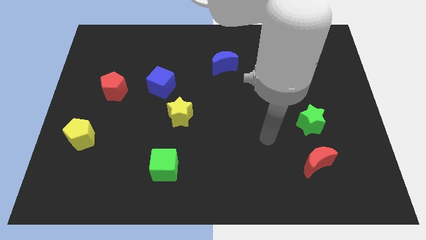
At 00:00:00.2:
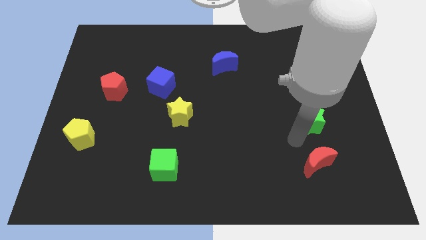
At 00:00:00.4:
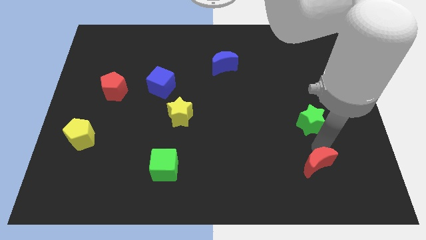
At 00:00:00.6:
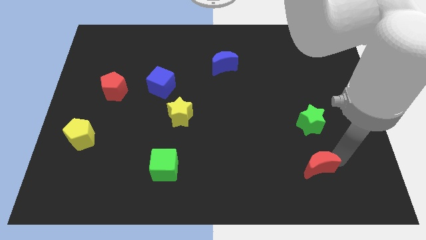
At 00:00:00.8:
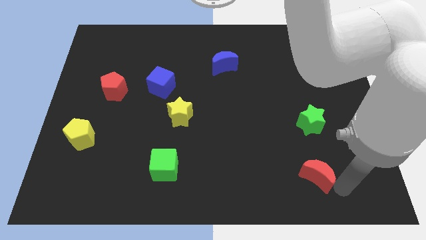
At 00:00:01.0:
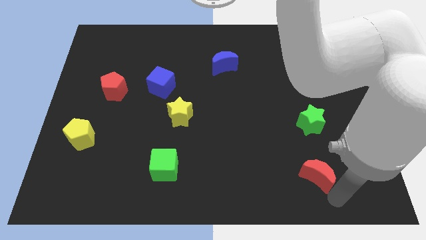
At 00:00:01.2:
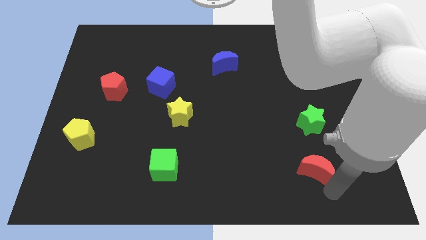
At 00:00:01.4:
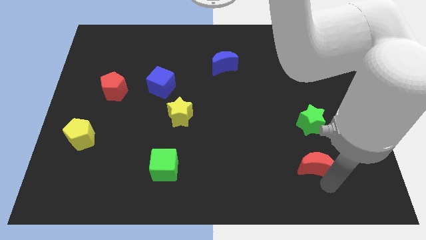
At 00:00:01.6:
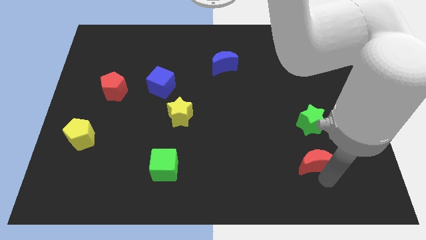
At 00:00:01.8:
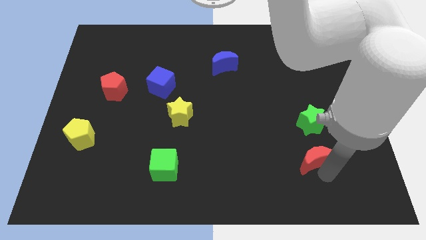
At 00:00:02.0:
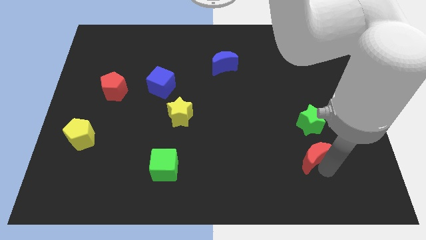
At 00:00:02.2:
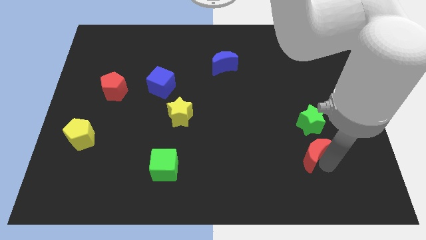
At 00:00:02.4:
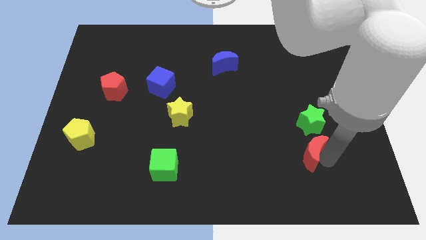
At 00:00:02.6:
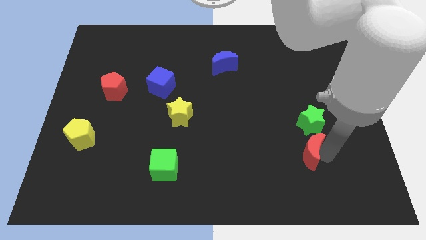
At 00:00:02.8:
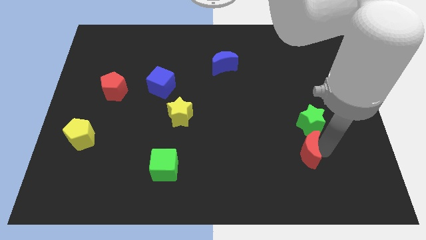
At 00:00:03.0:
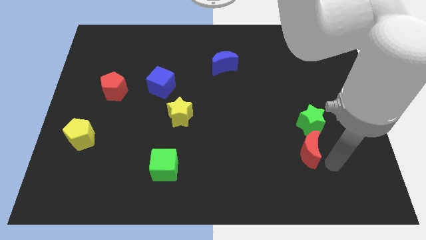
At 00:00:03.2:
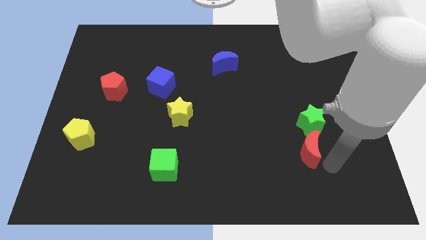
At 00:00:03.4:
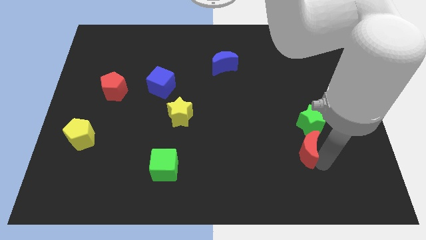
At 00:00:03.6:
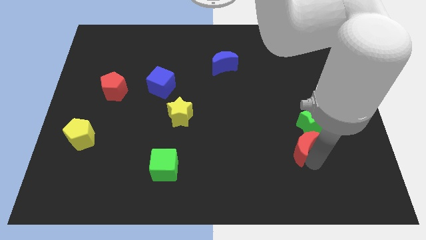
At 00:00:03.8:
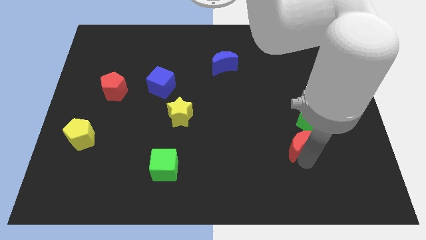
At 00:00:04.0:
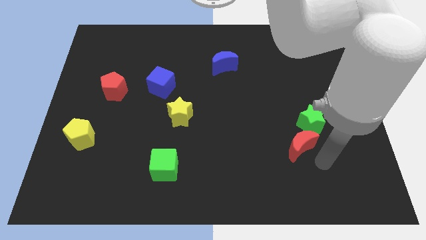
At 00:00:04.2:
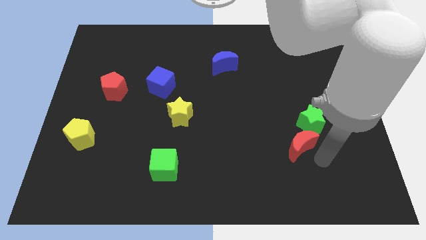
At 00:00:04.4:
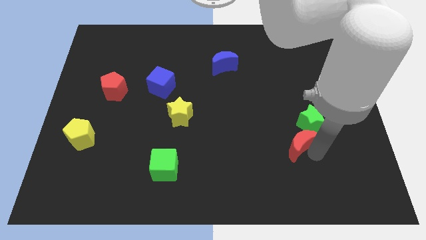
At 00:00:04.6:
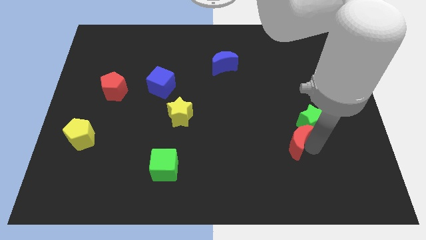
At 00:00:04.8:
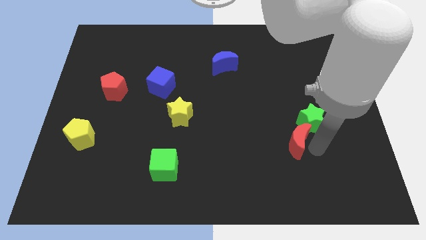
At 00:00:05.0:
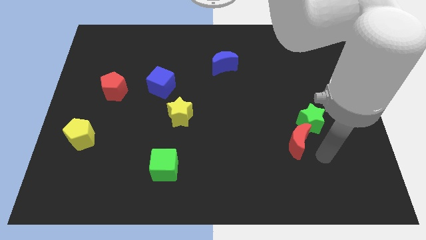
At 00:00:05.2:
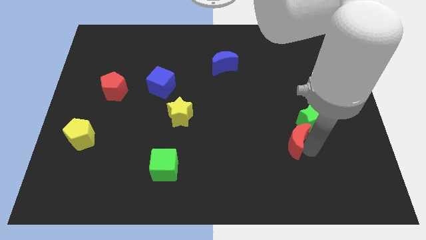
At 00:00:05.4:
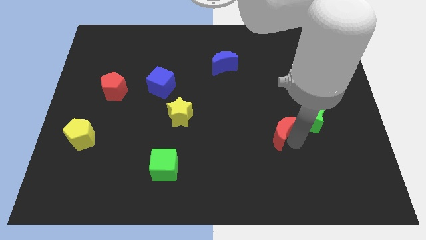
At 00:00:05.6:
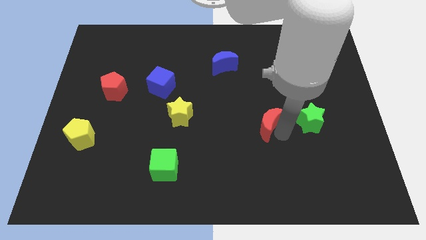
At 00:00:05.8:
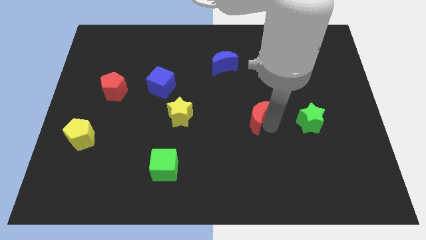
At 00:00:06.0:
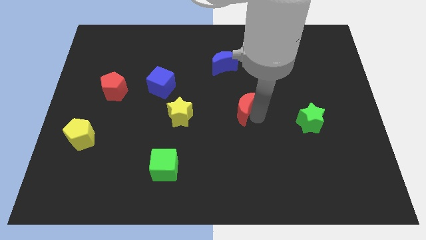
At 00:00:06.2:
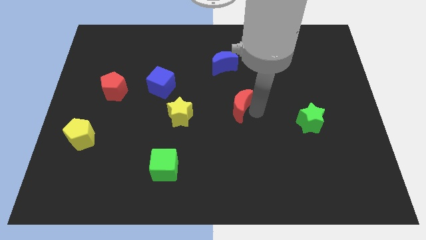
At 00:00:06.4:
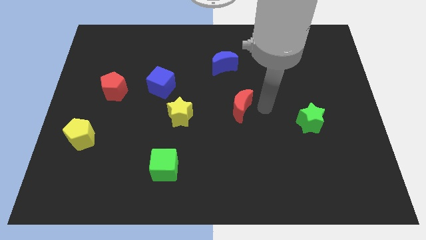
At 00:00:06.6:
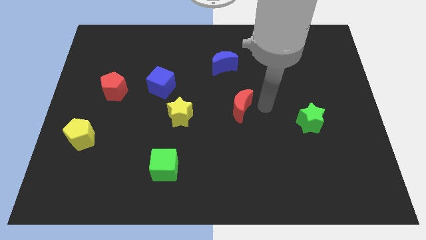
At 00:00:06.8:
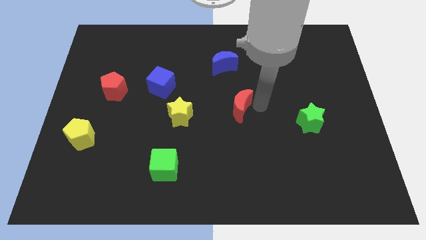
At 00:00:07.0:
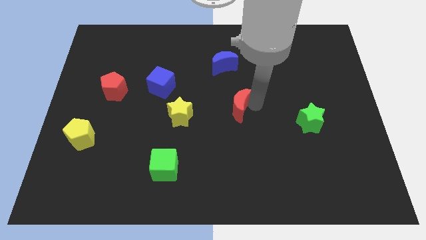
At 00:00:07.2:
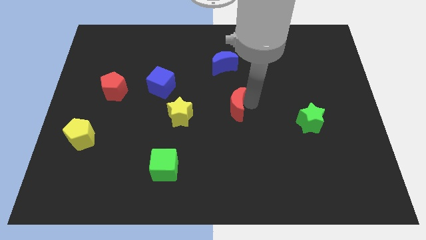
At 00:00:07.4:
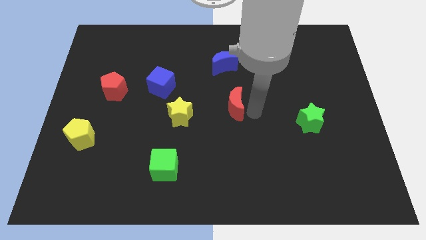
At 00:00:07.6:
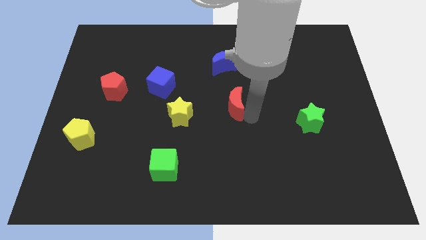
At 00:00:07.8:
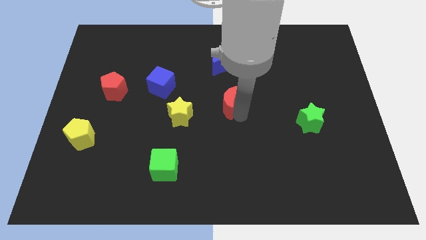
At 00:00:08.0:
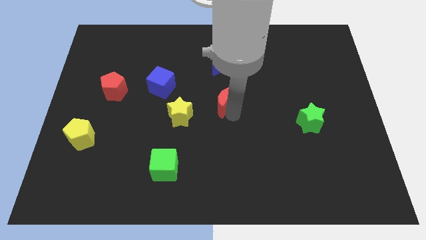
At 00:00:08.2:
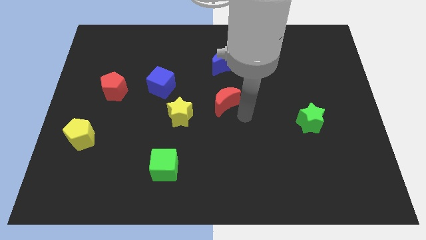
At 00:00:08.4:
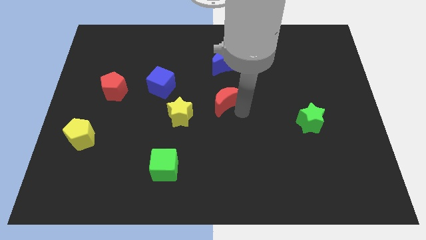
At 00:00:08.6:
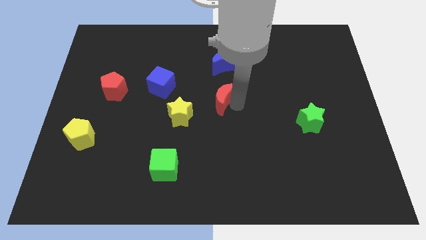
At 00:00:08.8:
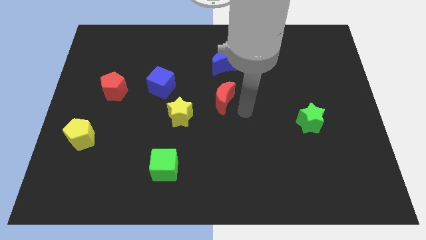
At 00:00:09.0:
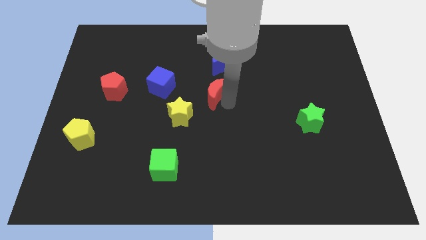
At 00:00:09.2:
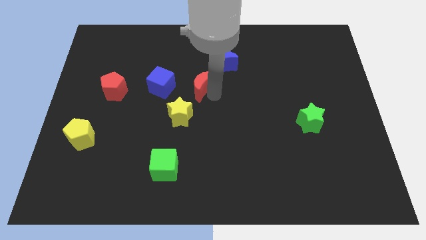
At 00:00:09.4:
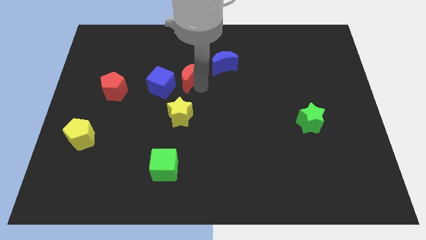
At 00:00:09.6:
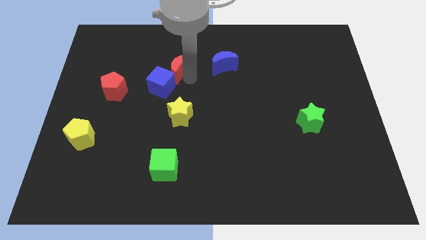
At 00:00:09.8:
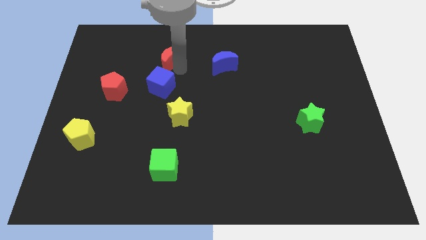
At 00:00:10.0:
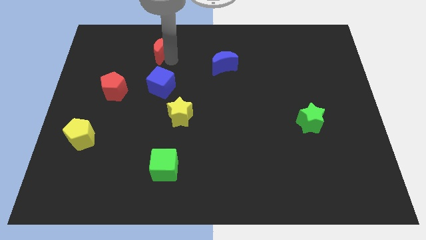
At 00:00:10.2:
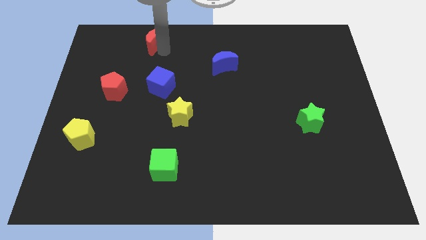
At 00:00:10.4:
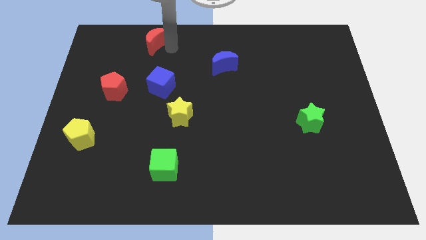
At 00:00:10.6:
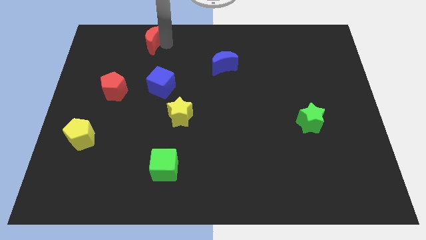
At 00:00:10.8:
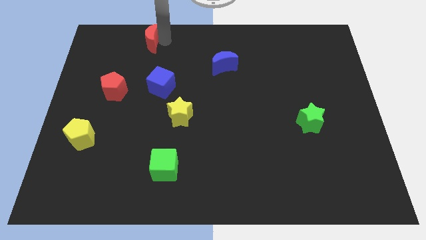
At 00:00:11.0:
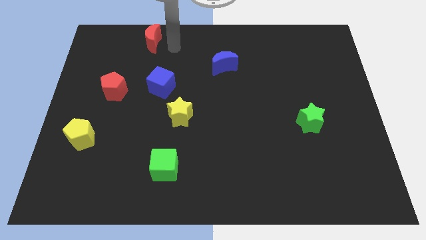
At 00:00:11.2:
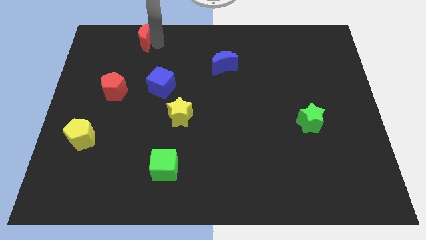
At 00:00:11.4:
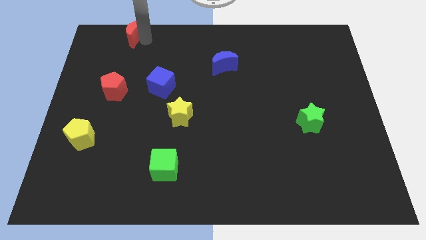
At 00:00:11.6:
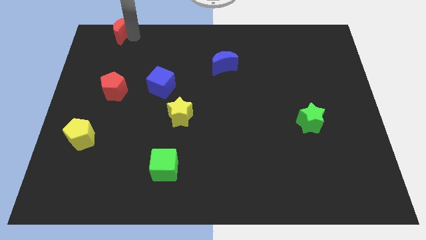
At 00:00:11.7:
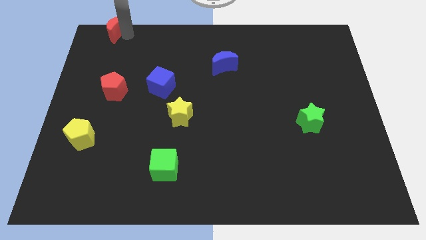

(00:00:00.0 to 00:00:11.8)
push the red moon to the upper left corner
